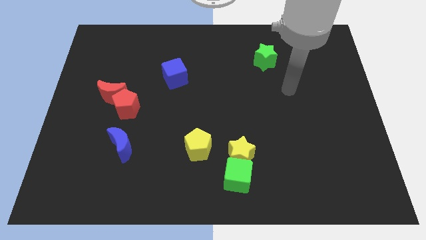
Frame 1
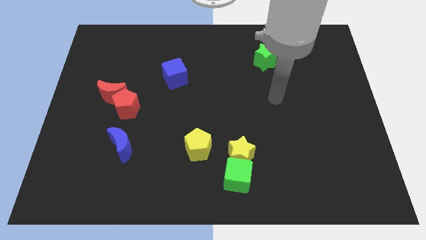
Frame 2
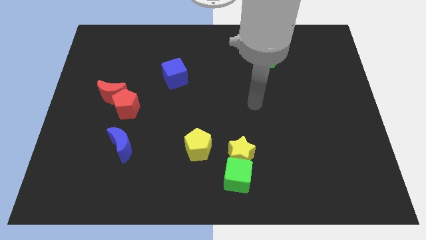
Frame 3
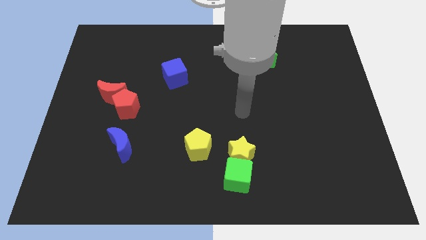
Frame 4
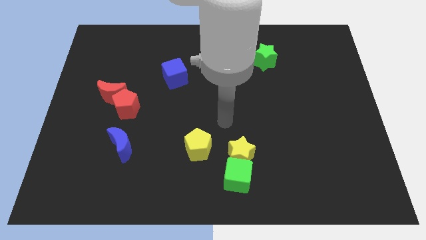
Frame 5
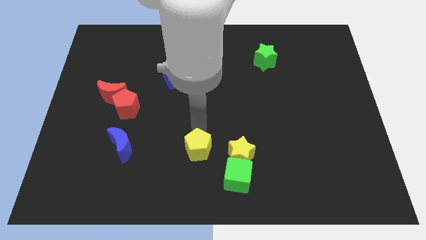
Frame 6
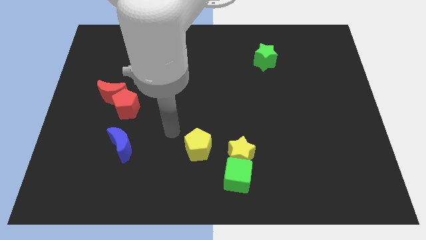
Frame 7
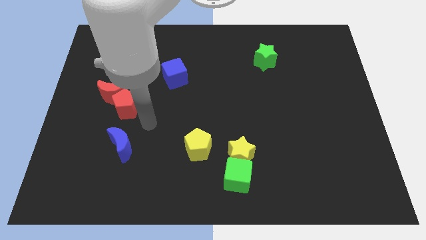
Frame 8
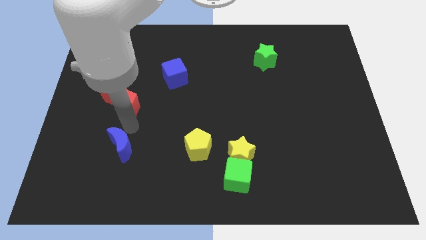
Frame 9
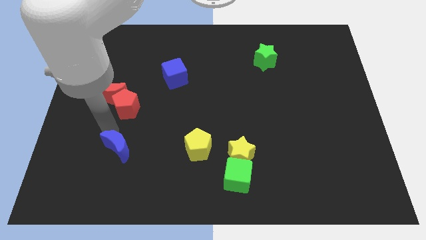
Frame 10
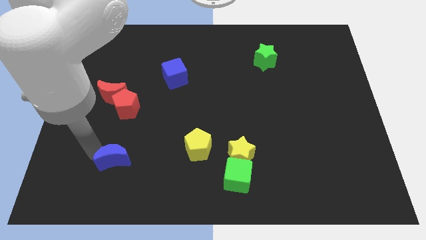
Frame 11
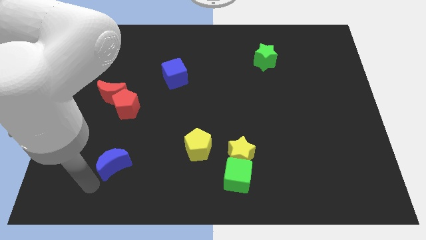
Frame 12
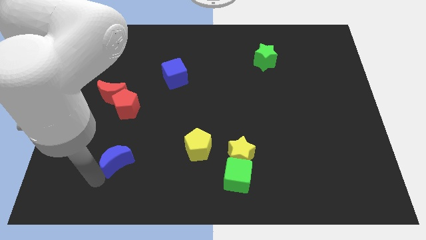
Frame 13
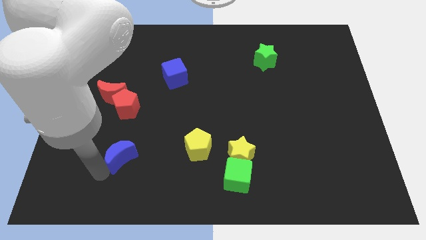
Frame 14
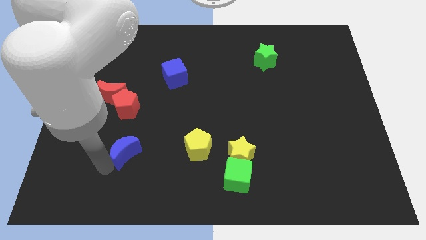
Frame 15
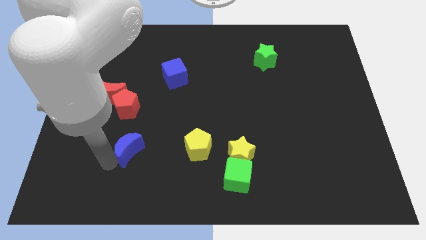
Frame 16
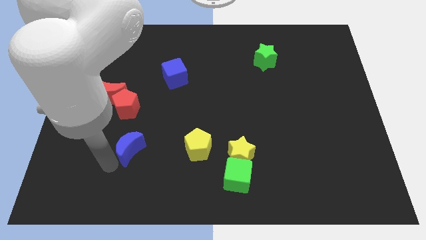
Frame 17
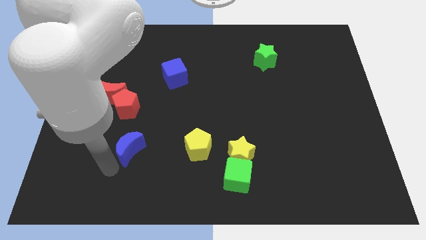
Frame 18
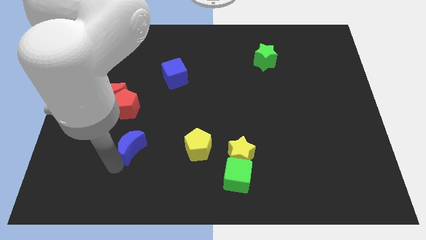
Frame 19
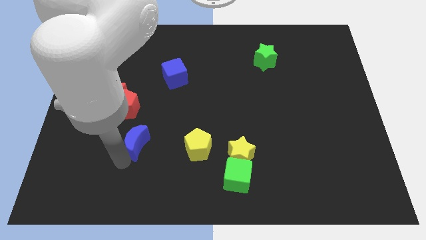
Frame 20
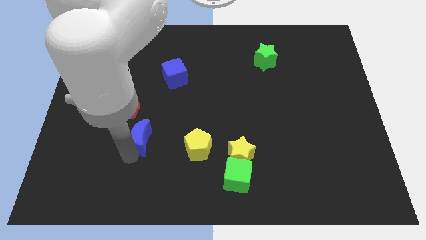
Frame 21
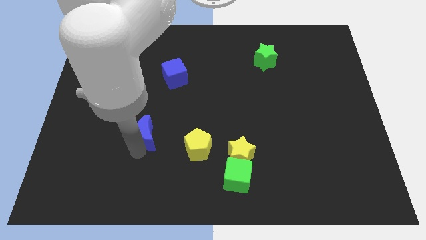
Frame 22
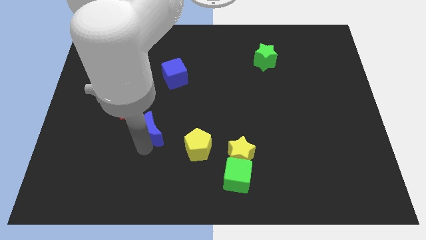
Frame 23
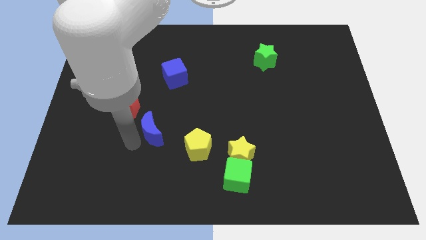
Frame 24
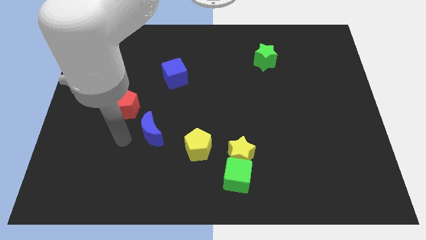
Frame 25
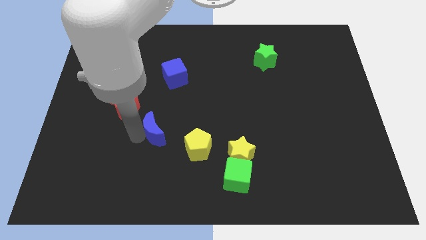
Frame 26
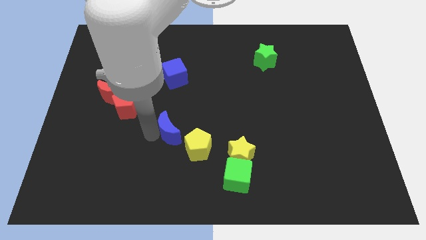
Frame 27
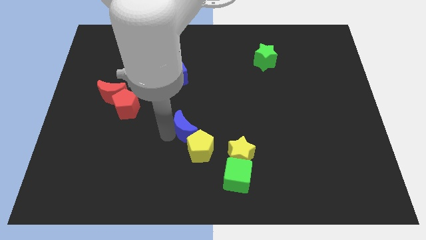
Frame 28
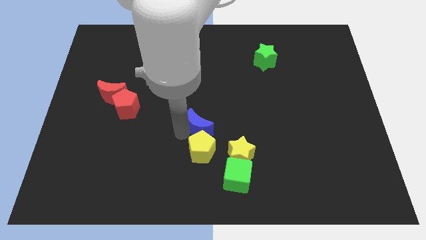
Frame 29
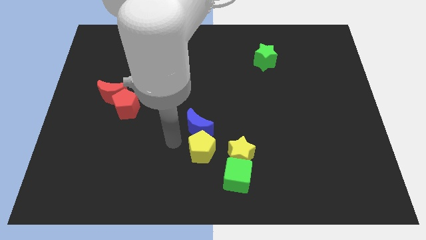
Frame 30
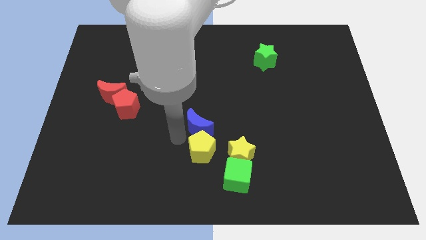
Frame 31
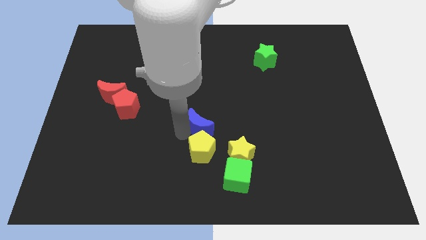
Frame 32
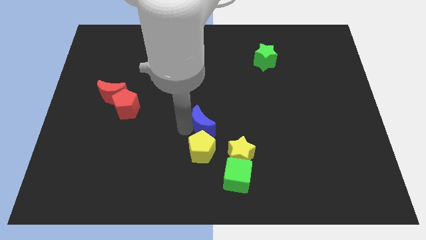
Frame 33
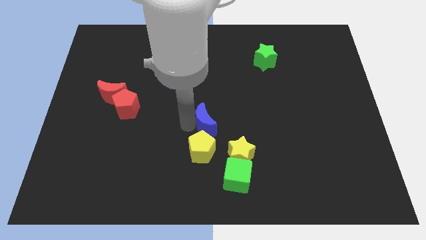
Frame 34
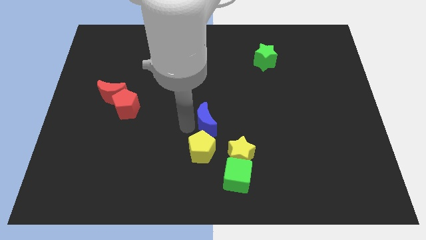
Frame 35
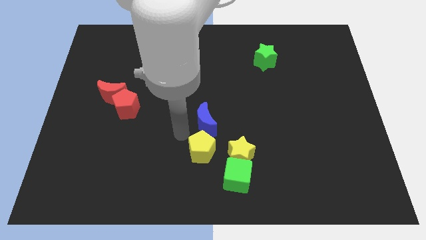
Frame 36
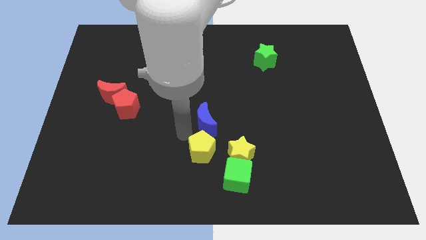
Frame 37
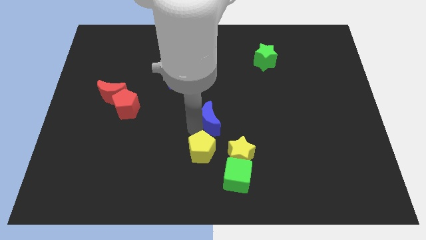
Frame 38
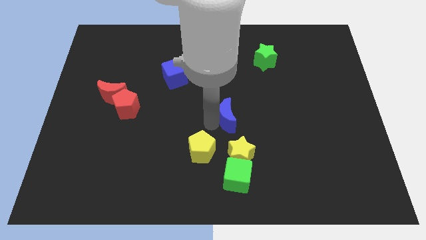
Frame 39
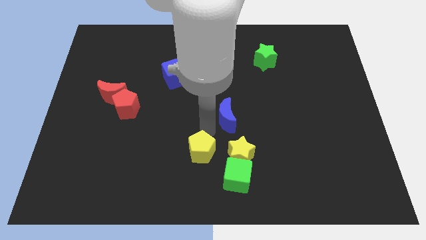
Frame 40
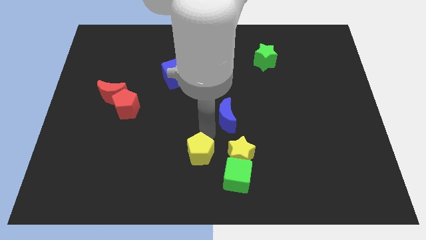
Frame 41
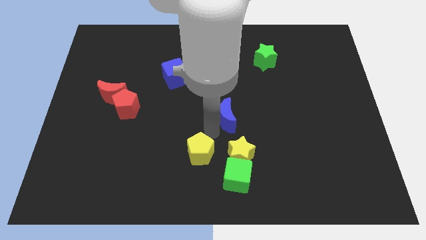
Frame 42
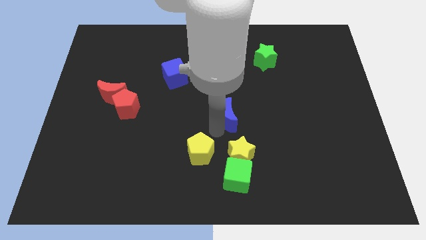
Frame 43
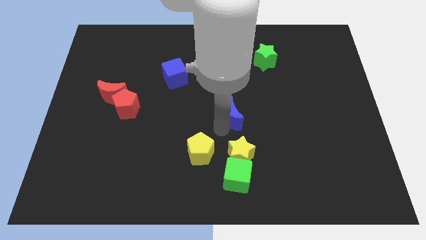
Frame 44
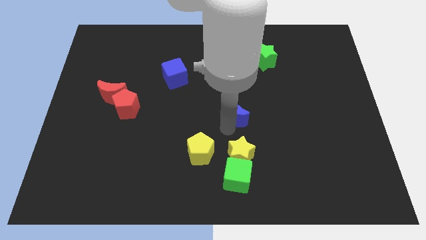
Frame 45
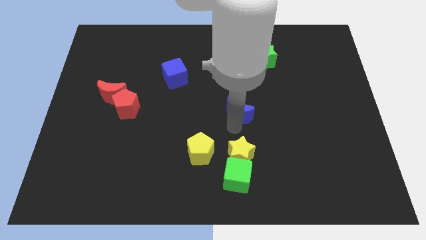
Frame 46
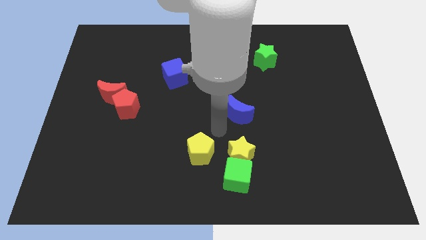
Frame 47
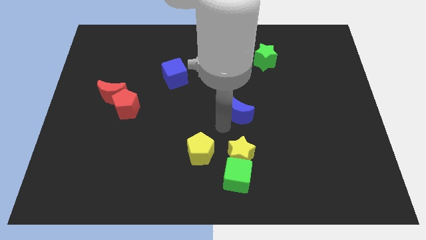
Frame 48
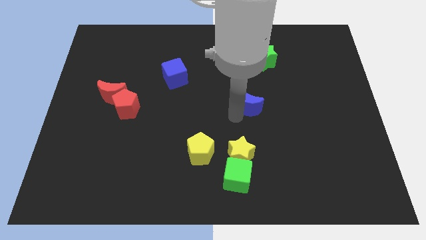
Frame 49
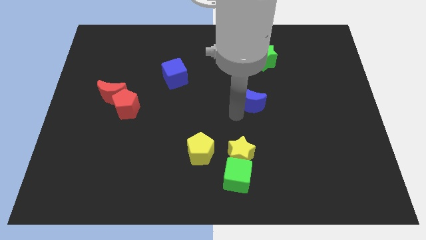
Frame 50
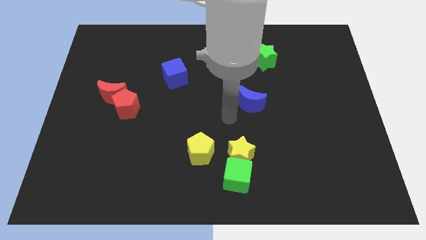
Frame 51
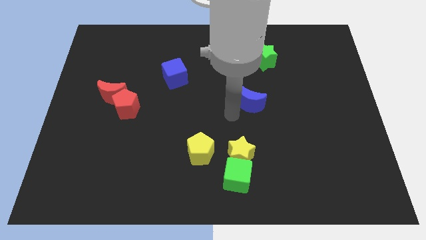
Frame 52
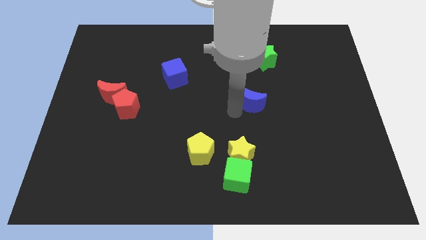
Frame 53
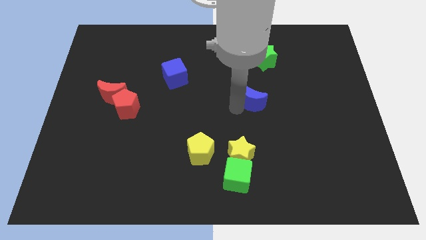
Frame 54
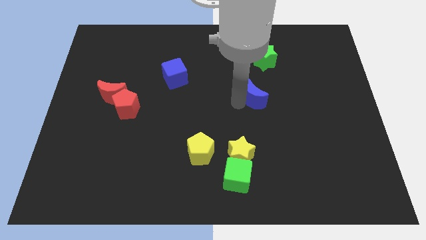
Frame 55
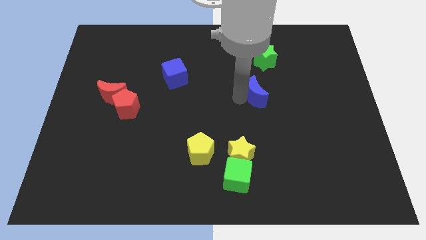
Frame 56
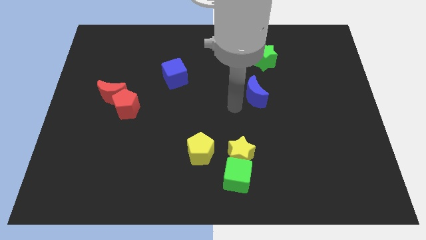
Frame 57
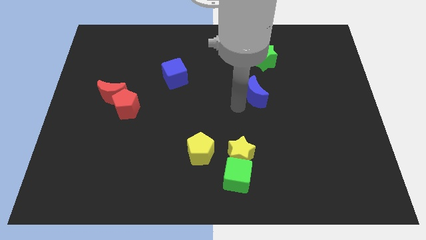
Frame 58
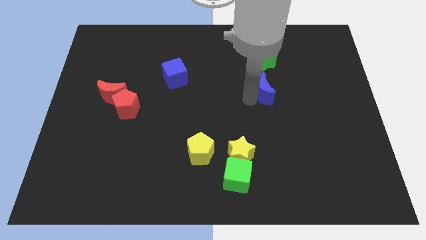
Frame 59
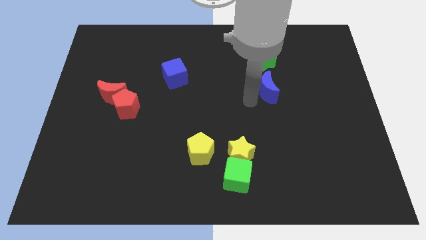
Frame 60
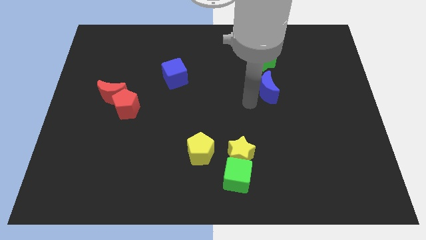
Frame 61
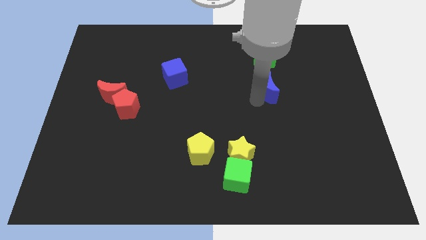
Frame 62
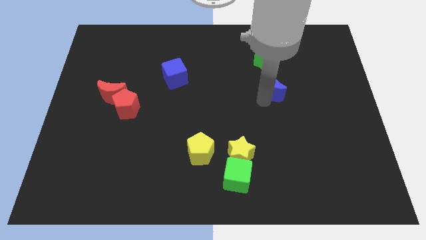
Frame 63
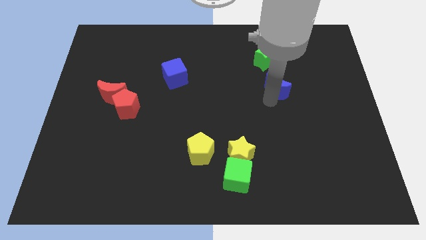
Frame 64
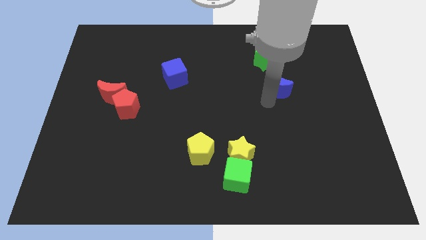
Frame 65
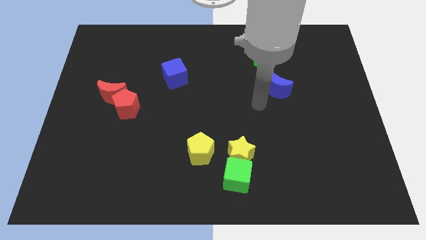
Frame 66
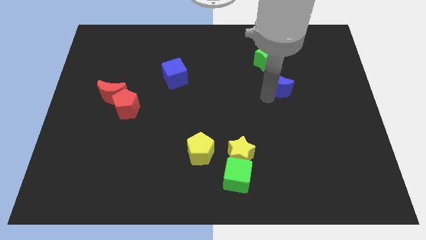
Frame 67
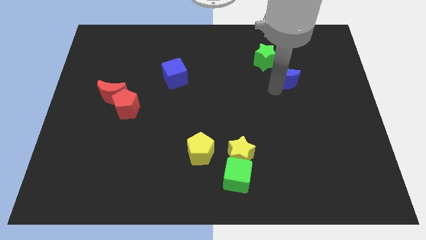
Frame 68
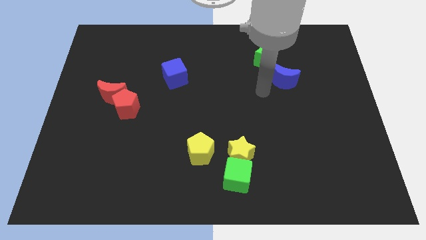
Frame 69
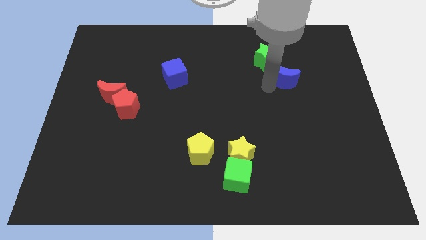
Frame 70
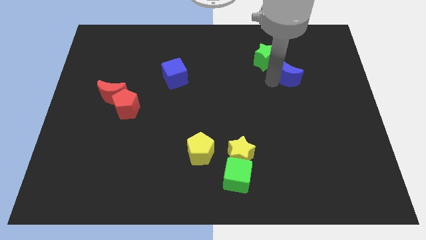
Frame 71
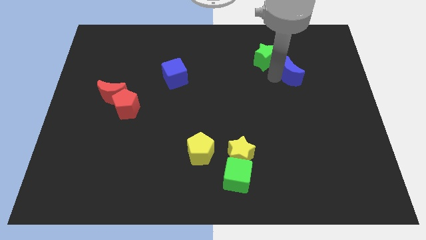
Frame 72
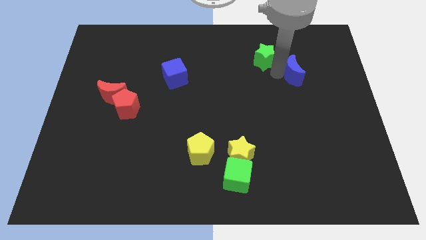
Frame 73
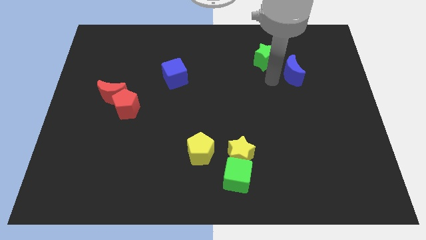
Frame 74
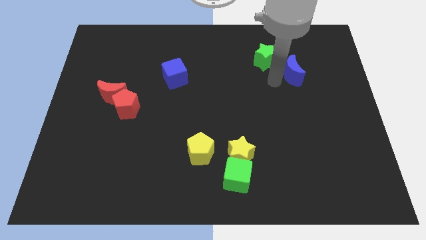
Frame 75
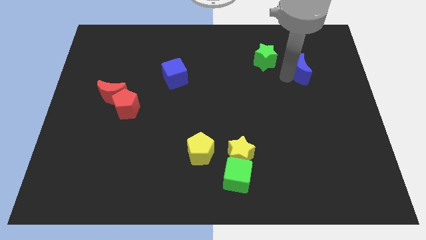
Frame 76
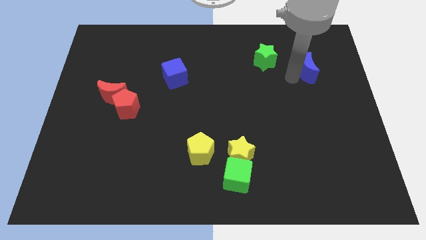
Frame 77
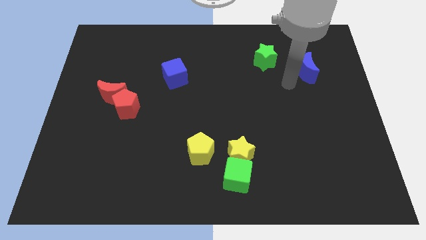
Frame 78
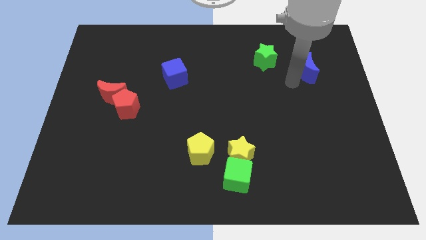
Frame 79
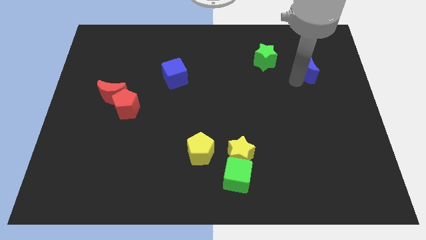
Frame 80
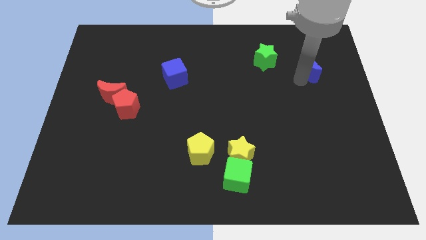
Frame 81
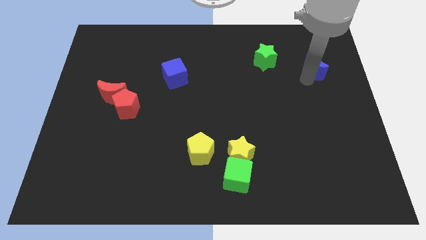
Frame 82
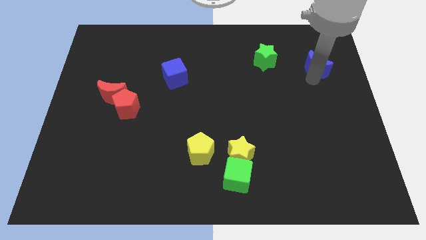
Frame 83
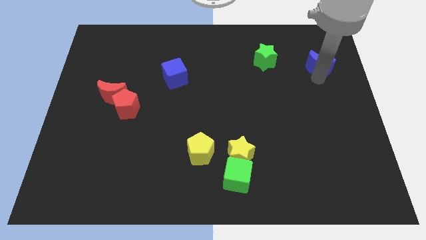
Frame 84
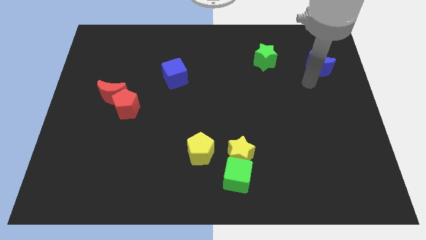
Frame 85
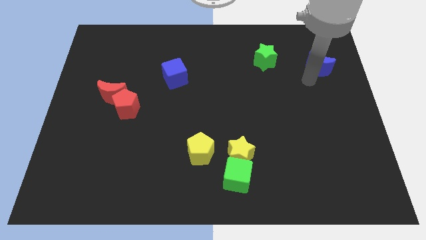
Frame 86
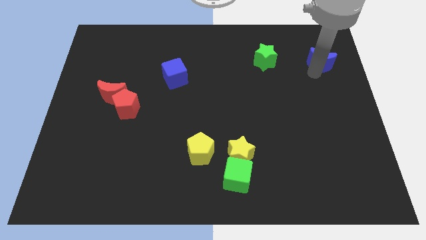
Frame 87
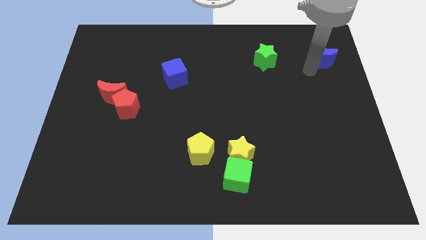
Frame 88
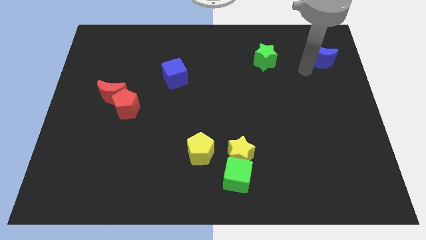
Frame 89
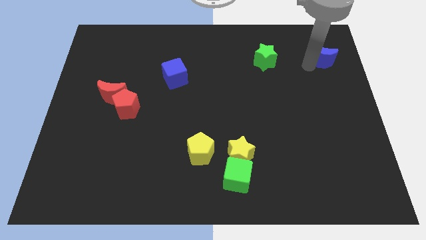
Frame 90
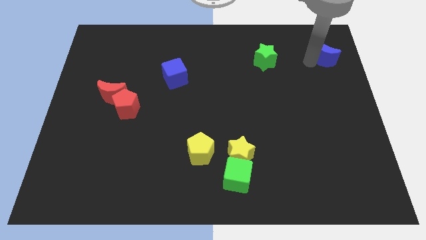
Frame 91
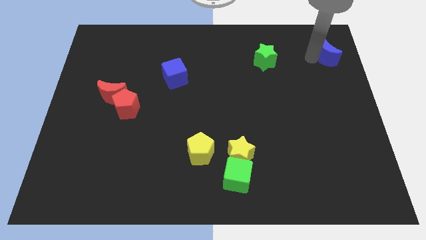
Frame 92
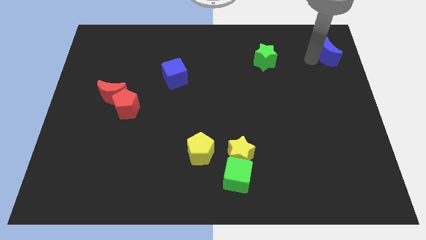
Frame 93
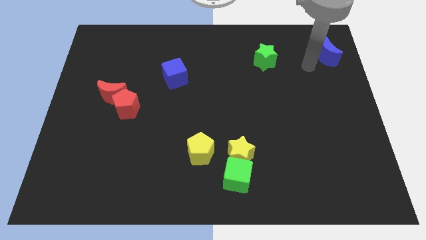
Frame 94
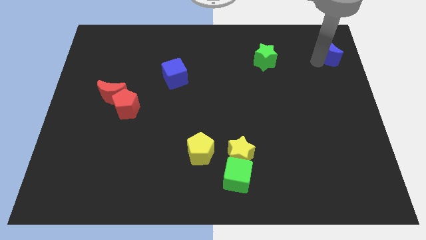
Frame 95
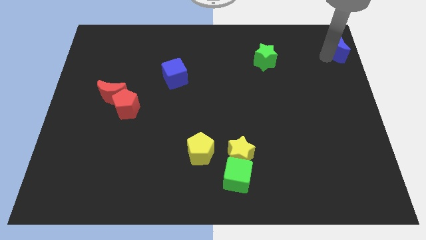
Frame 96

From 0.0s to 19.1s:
put the blue moon to the top right
